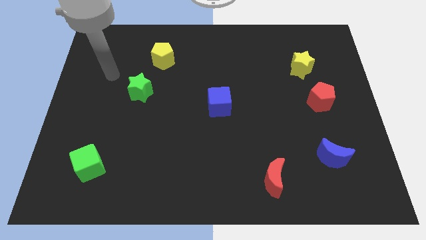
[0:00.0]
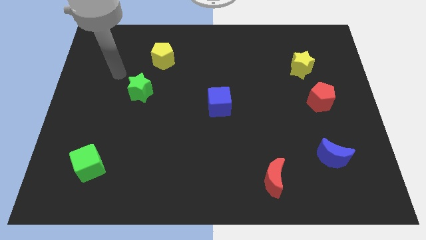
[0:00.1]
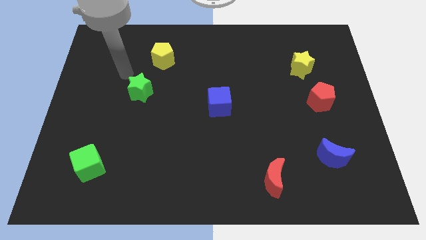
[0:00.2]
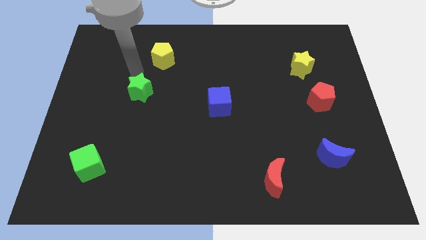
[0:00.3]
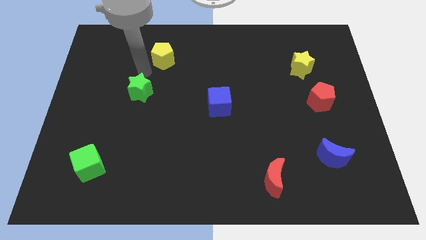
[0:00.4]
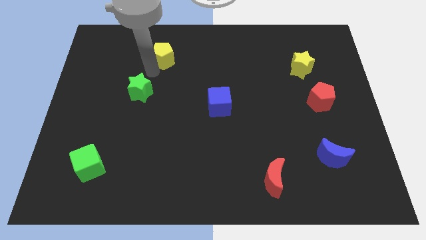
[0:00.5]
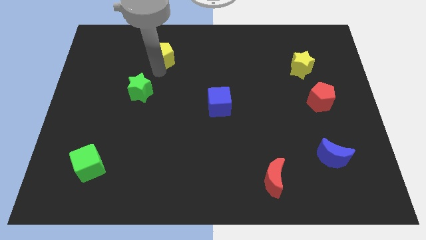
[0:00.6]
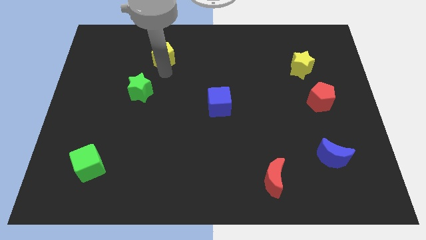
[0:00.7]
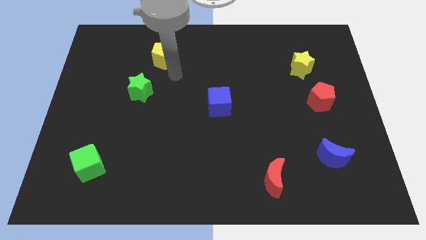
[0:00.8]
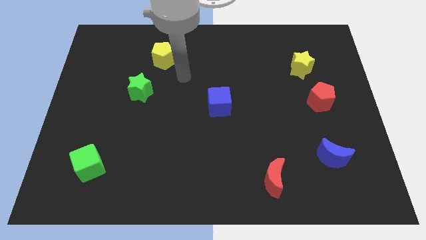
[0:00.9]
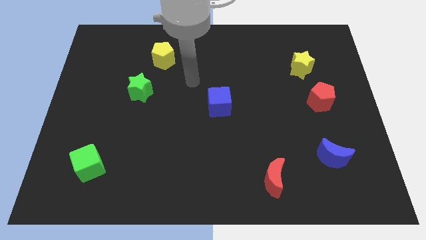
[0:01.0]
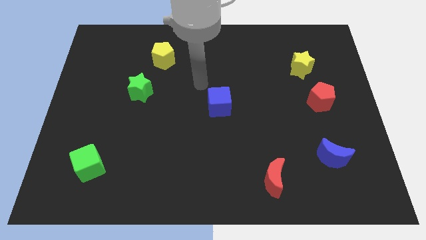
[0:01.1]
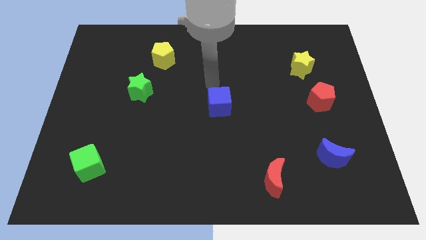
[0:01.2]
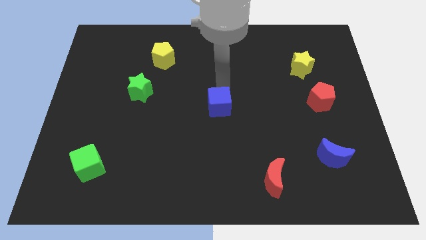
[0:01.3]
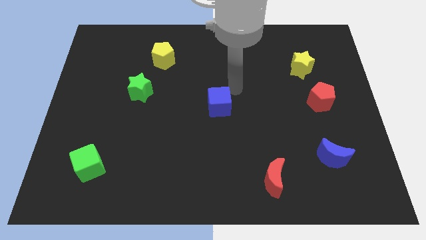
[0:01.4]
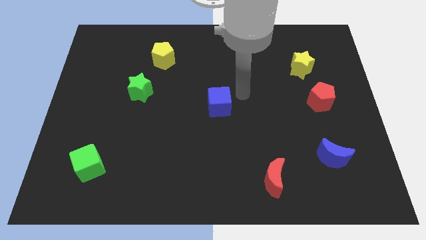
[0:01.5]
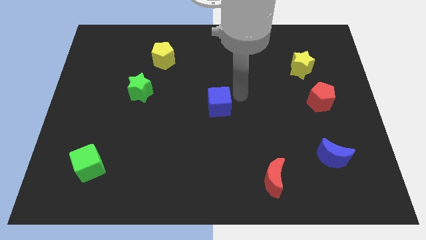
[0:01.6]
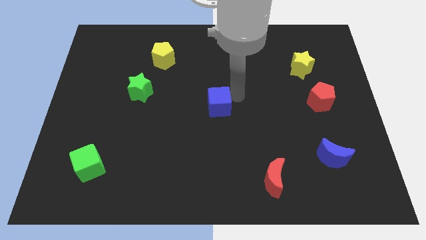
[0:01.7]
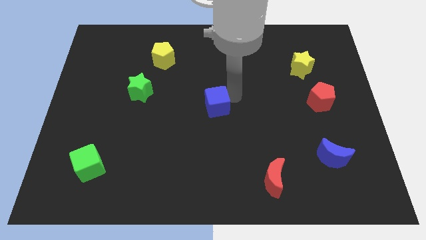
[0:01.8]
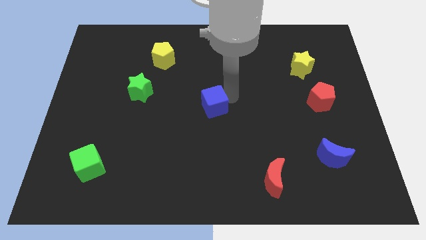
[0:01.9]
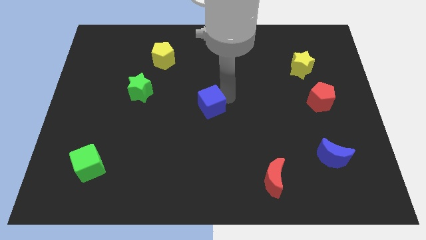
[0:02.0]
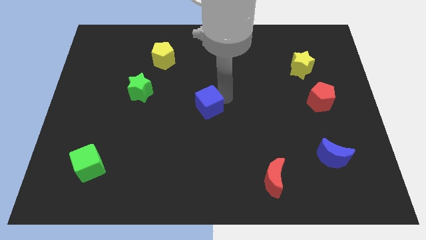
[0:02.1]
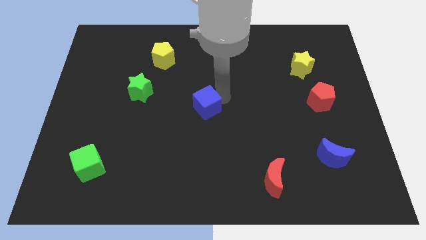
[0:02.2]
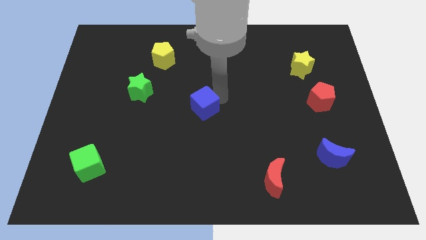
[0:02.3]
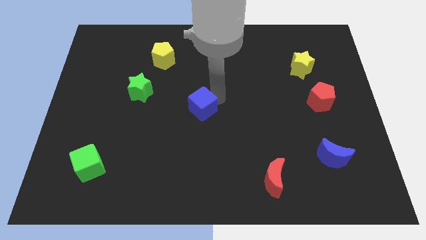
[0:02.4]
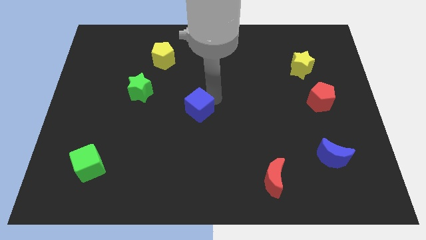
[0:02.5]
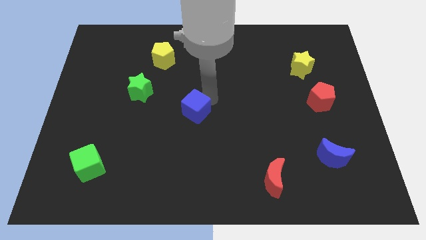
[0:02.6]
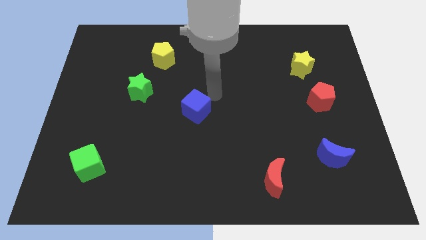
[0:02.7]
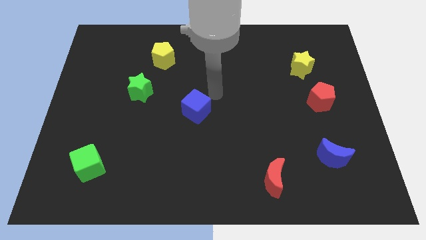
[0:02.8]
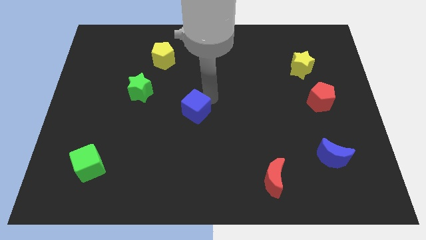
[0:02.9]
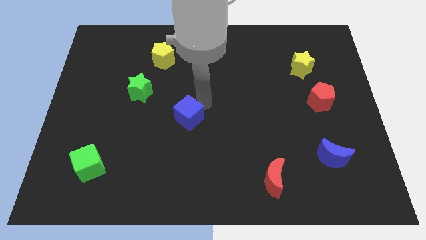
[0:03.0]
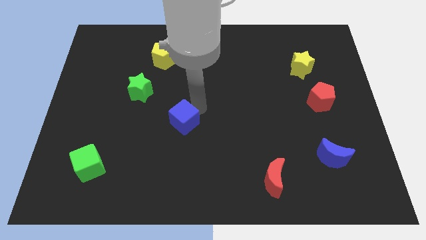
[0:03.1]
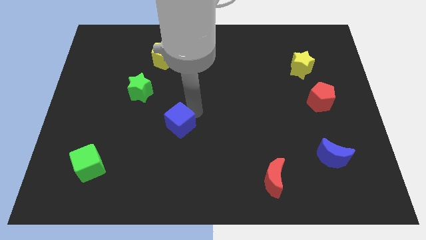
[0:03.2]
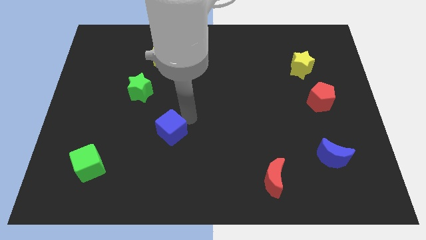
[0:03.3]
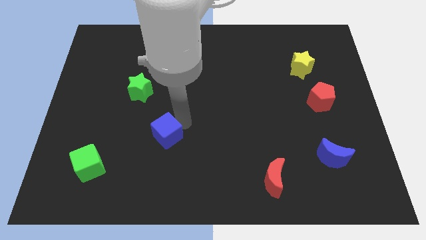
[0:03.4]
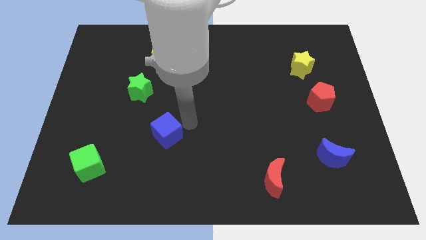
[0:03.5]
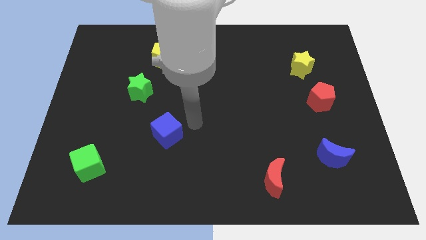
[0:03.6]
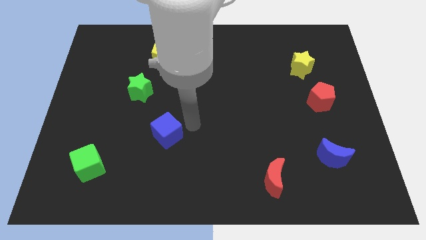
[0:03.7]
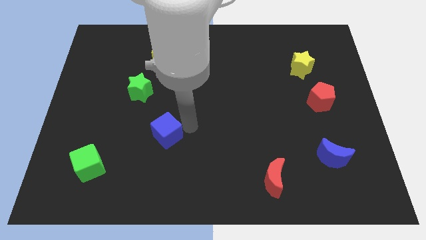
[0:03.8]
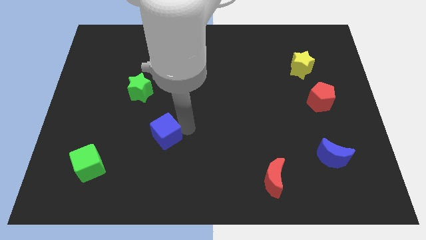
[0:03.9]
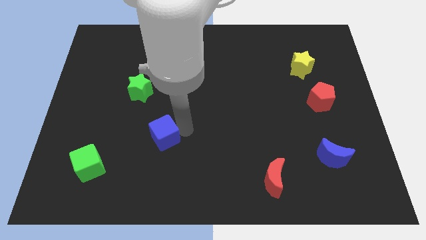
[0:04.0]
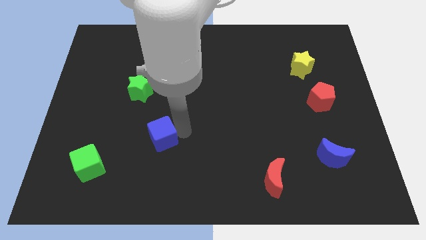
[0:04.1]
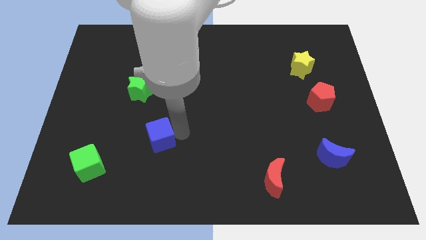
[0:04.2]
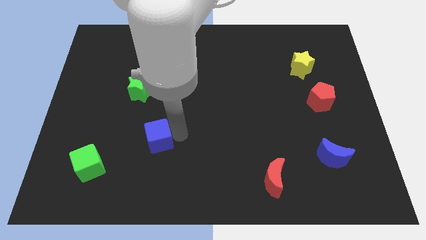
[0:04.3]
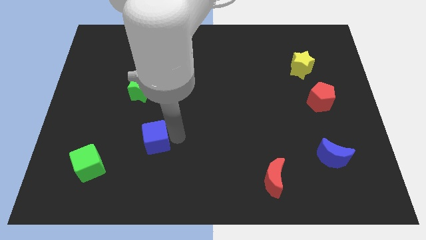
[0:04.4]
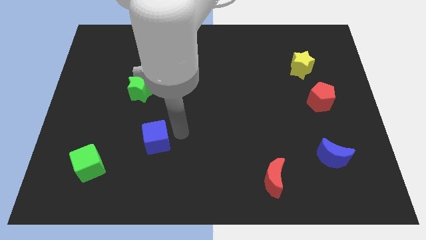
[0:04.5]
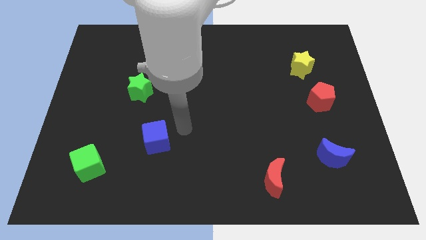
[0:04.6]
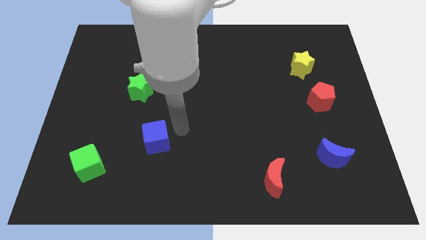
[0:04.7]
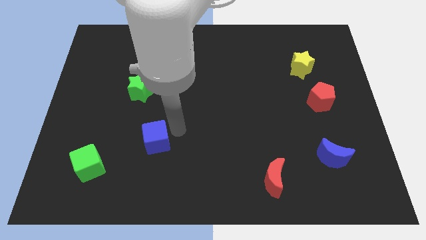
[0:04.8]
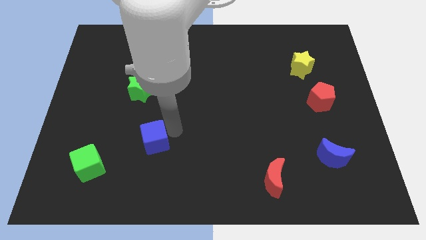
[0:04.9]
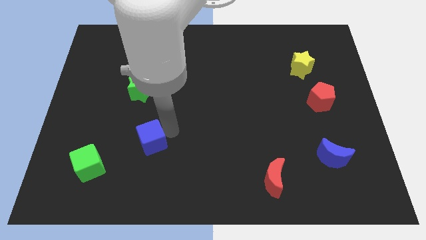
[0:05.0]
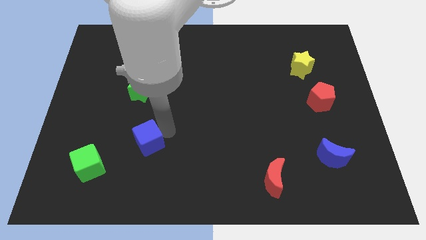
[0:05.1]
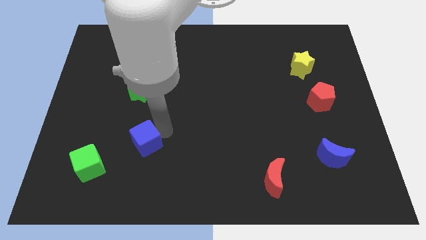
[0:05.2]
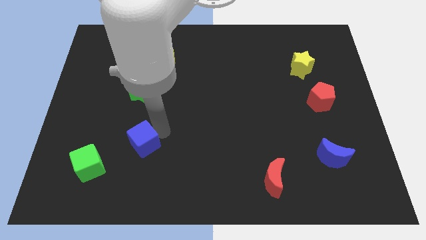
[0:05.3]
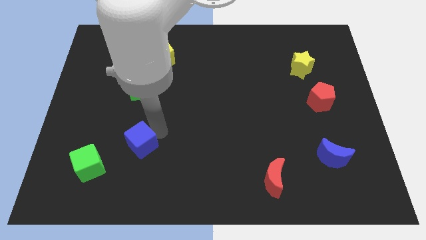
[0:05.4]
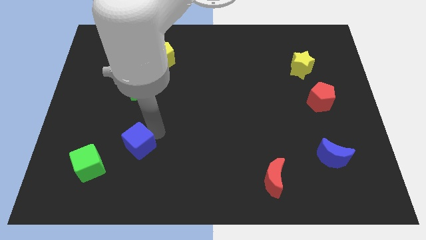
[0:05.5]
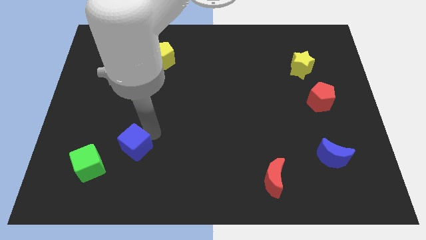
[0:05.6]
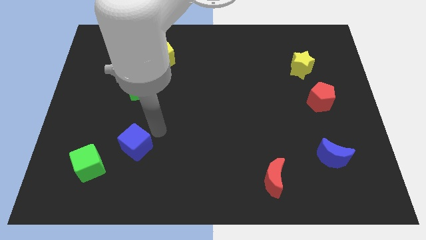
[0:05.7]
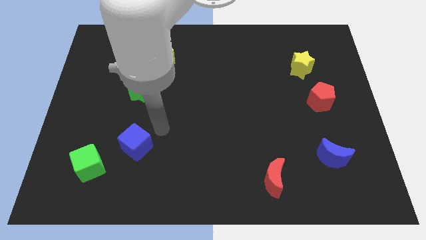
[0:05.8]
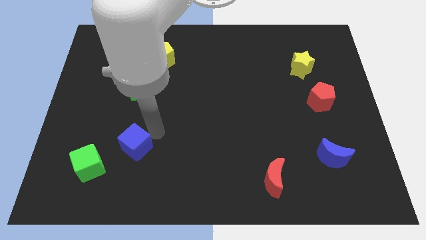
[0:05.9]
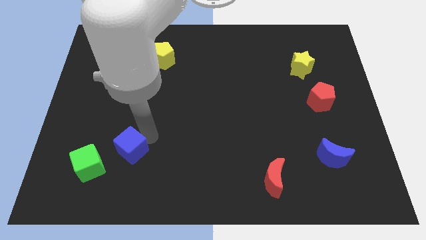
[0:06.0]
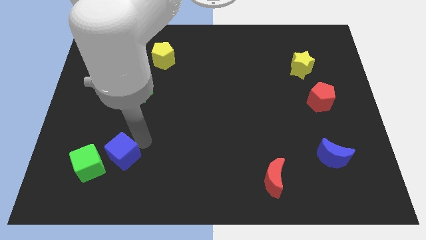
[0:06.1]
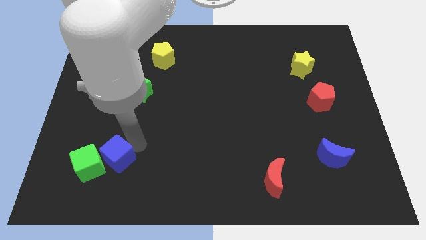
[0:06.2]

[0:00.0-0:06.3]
move the blue cube close to the green cube

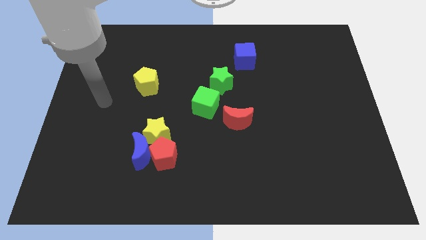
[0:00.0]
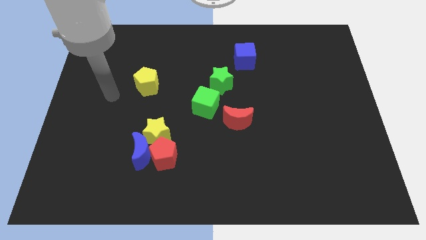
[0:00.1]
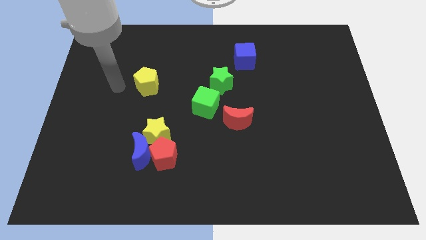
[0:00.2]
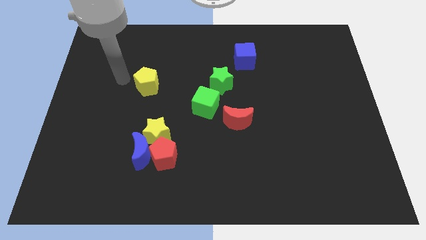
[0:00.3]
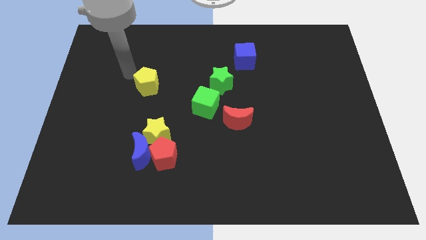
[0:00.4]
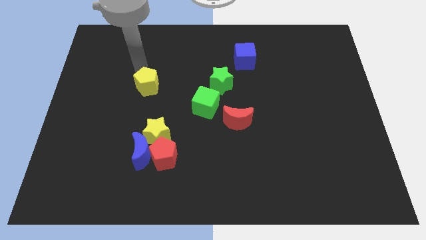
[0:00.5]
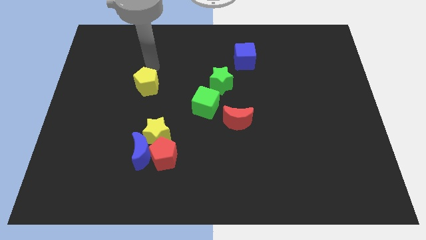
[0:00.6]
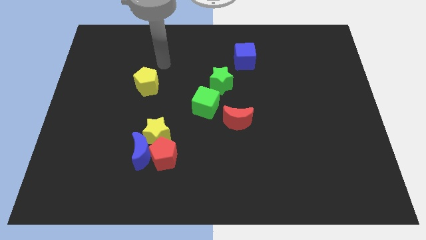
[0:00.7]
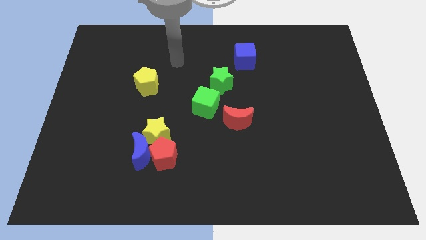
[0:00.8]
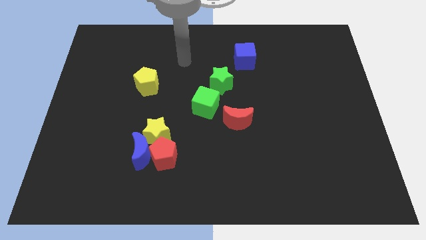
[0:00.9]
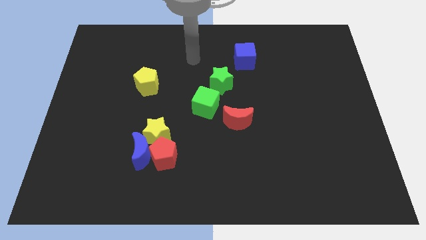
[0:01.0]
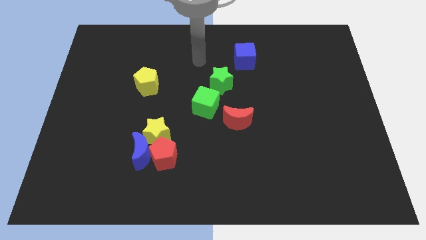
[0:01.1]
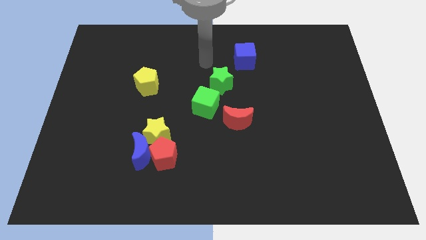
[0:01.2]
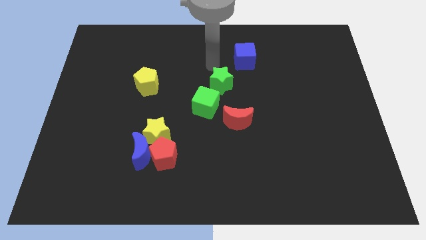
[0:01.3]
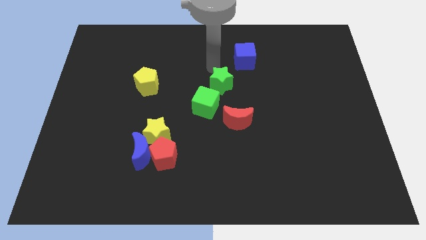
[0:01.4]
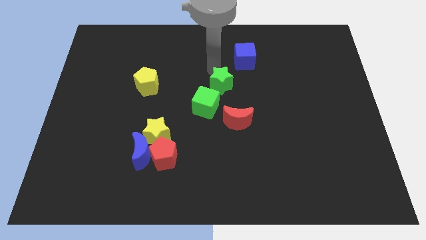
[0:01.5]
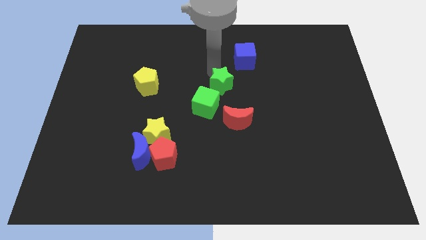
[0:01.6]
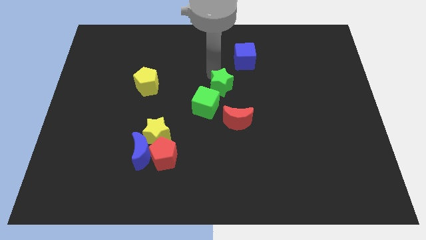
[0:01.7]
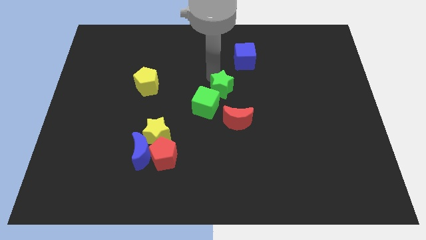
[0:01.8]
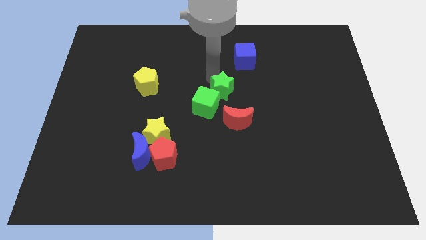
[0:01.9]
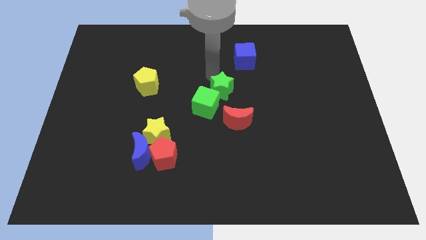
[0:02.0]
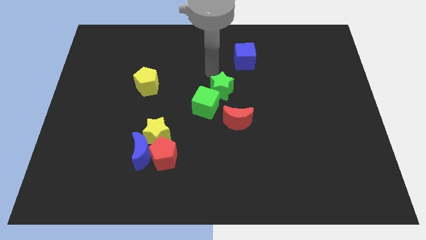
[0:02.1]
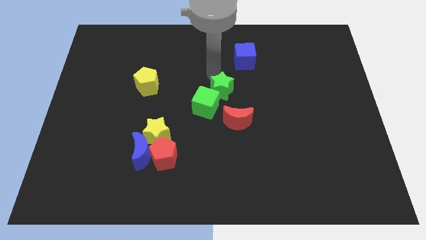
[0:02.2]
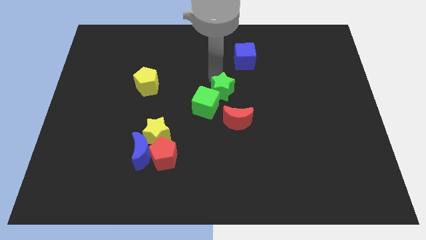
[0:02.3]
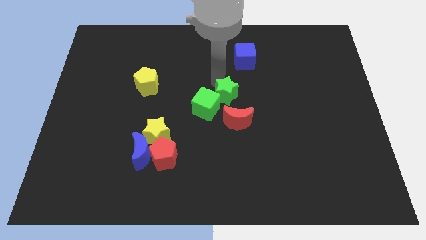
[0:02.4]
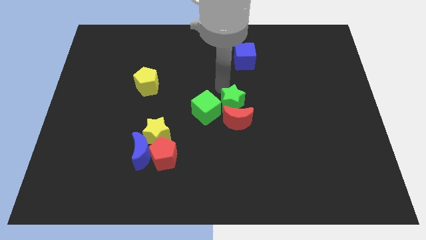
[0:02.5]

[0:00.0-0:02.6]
push the green star to the red moon
